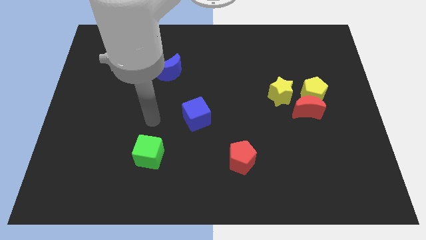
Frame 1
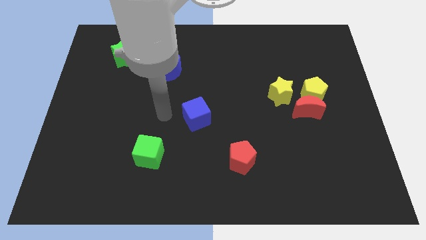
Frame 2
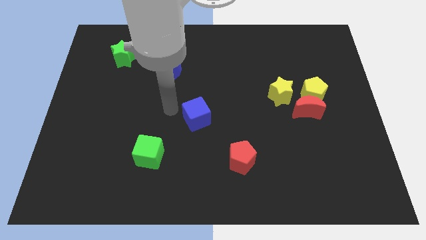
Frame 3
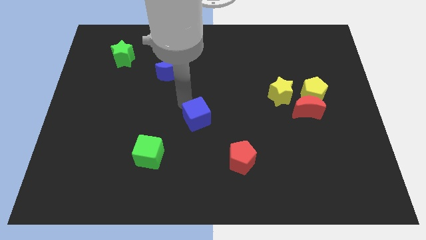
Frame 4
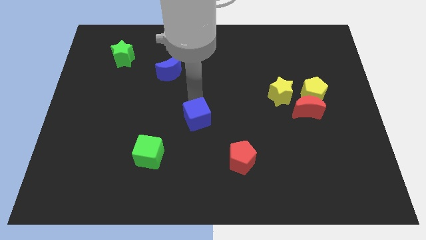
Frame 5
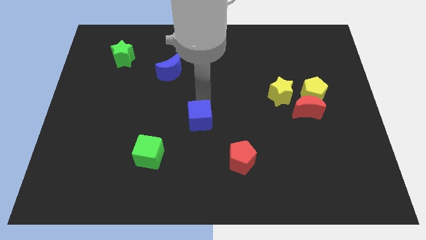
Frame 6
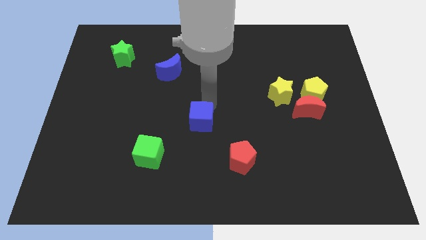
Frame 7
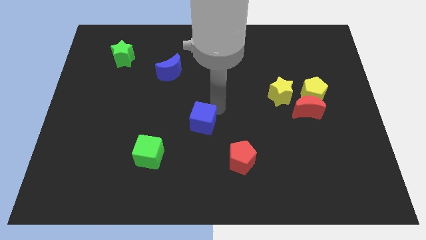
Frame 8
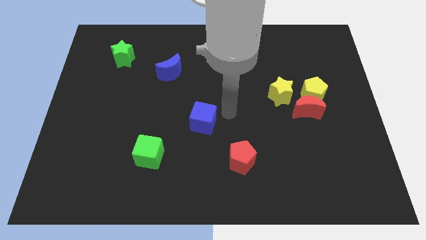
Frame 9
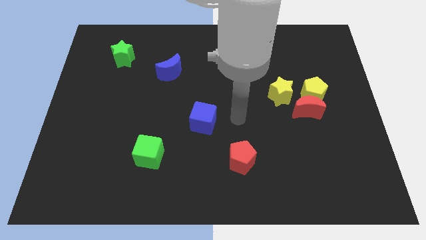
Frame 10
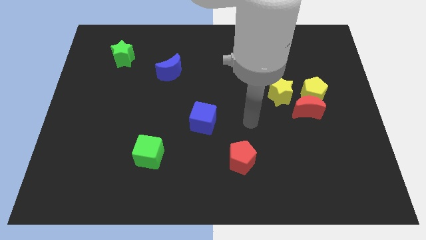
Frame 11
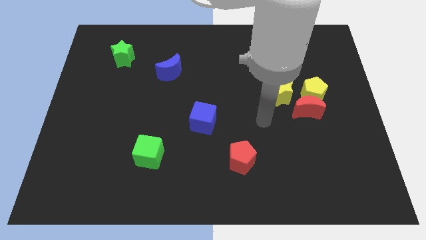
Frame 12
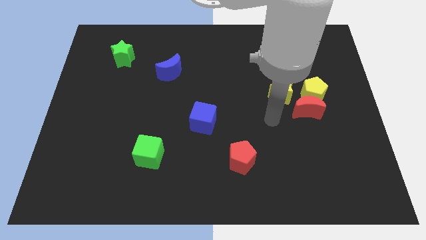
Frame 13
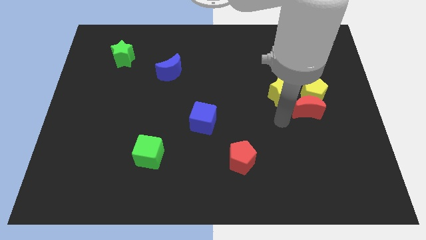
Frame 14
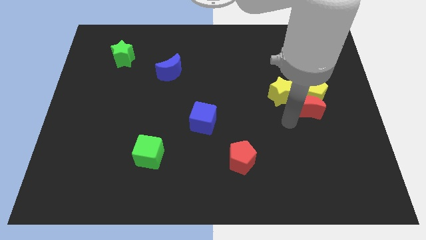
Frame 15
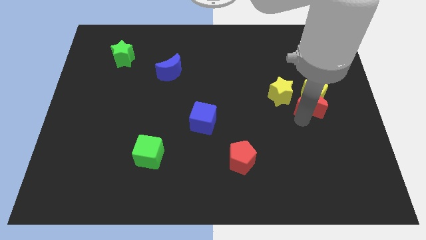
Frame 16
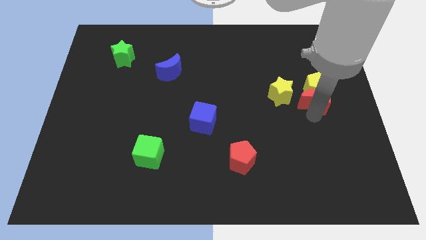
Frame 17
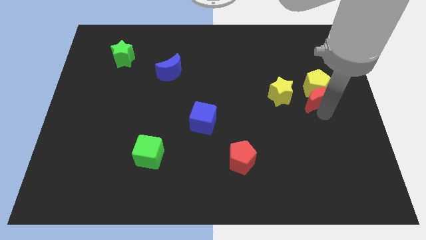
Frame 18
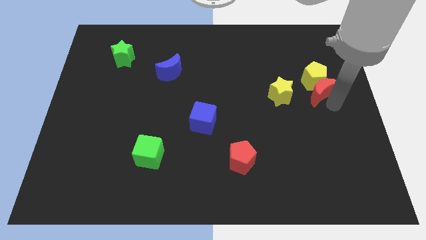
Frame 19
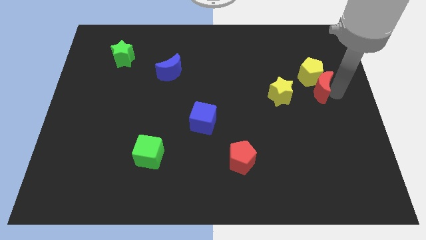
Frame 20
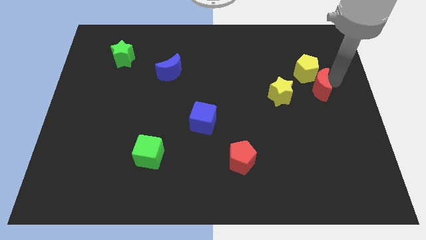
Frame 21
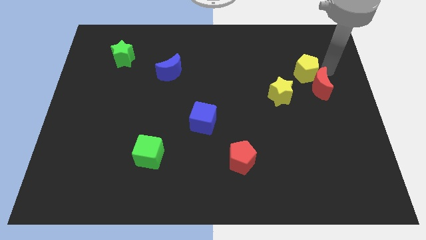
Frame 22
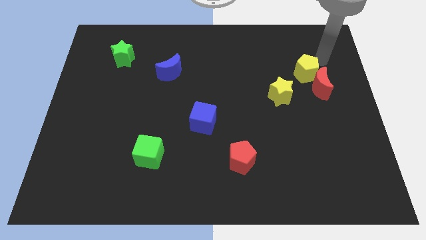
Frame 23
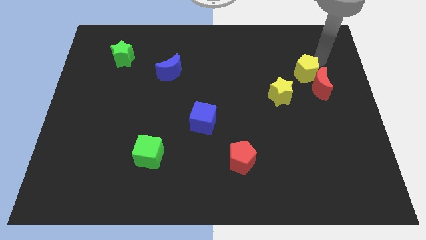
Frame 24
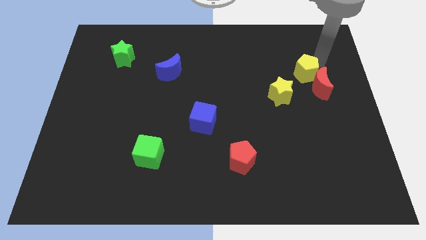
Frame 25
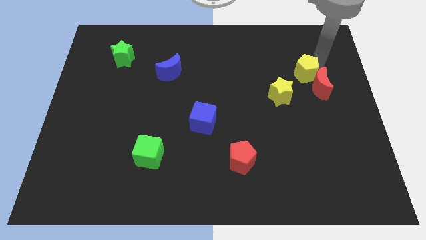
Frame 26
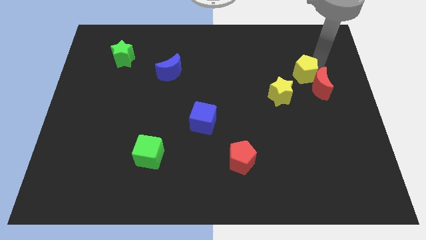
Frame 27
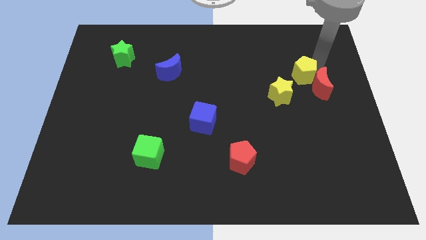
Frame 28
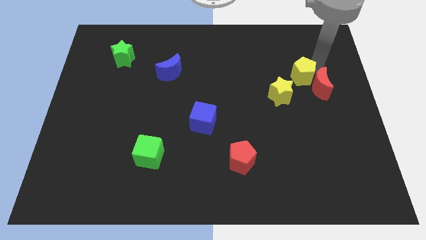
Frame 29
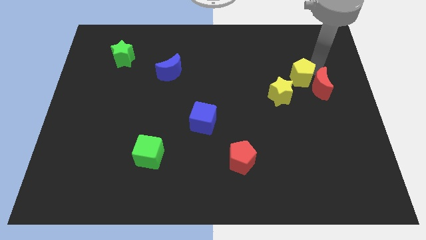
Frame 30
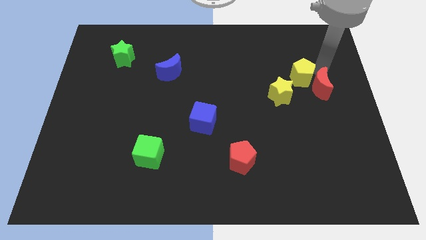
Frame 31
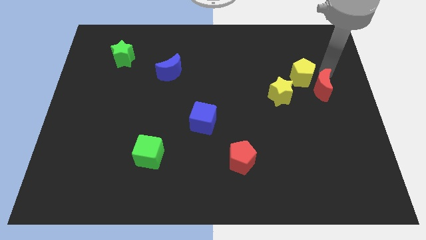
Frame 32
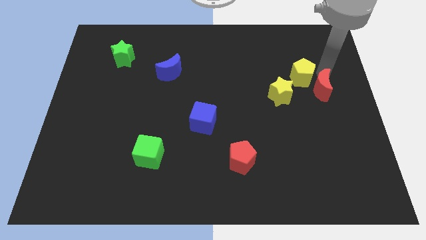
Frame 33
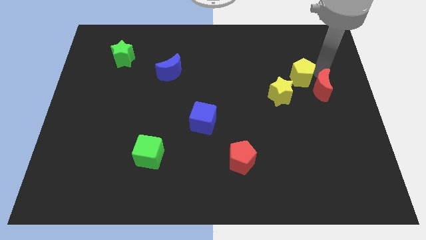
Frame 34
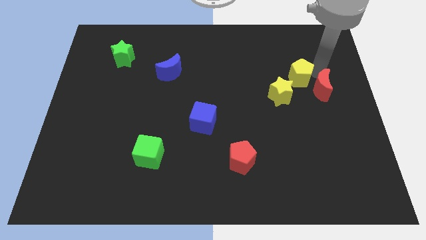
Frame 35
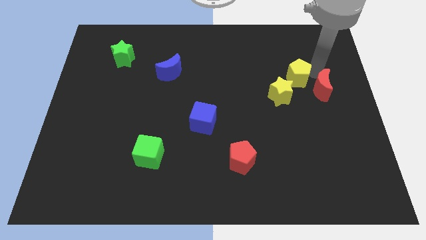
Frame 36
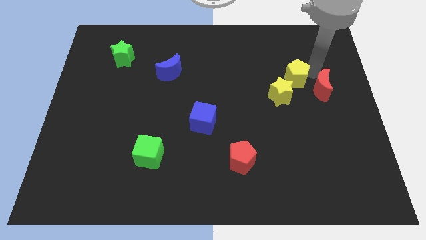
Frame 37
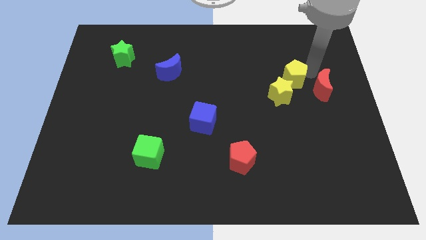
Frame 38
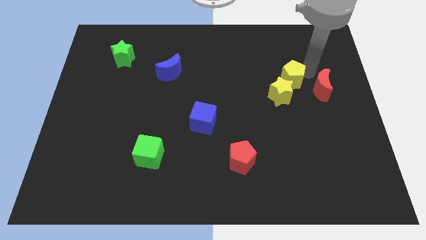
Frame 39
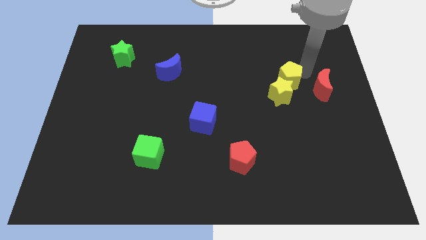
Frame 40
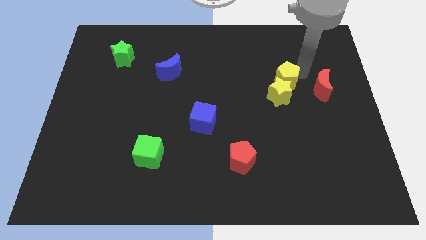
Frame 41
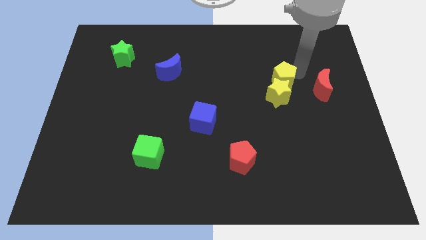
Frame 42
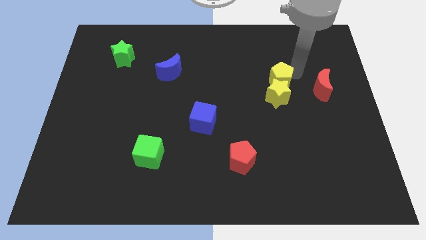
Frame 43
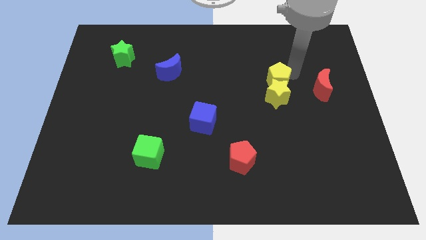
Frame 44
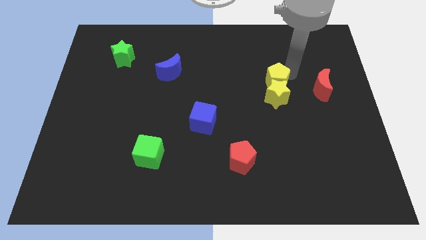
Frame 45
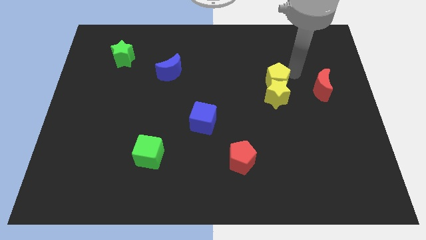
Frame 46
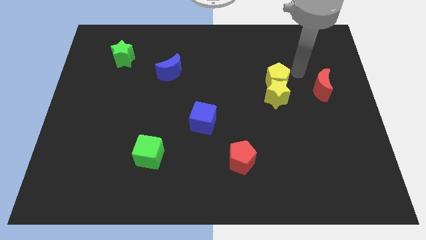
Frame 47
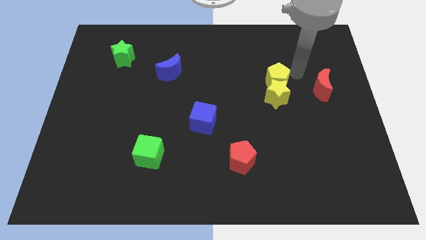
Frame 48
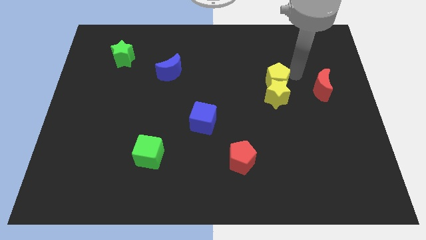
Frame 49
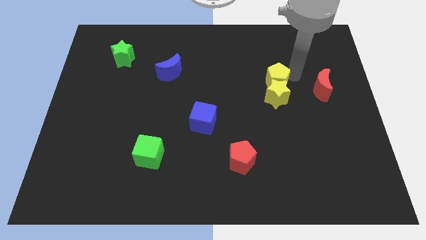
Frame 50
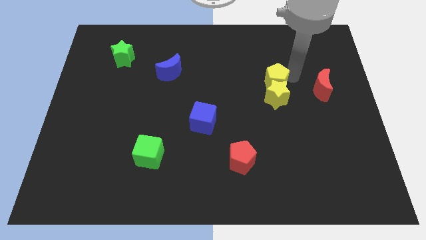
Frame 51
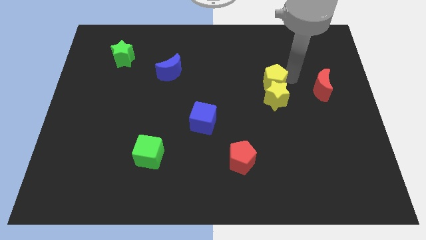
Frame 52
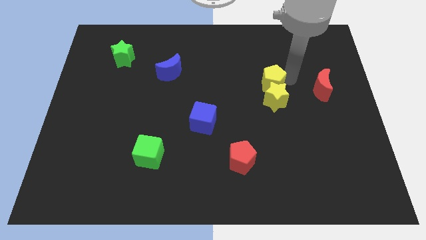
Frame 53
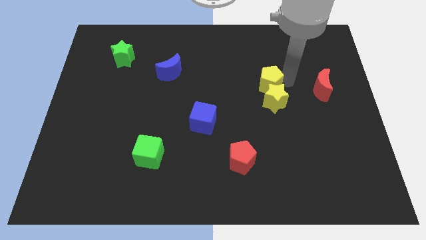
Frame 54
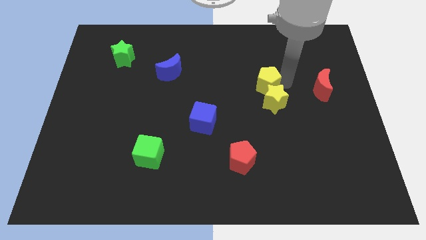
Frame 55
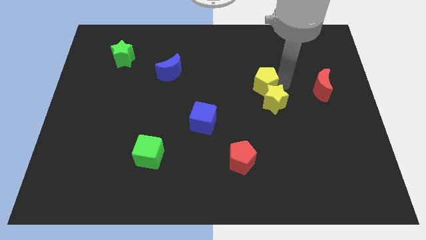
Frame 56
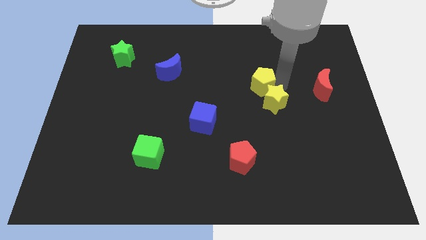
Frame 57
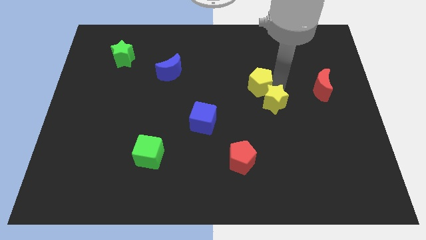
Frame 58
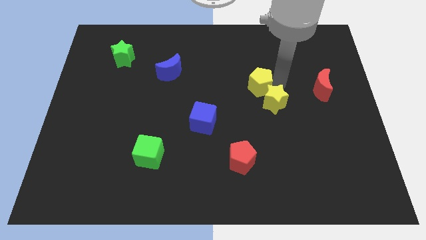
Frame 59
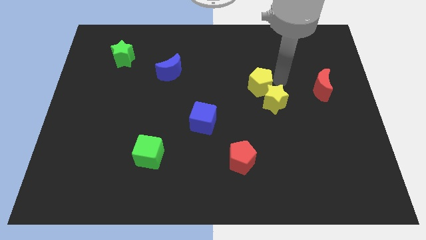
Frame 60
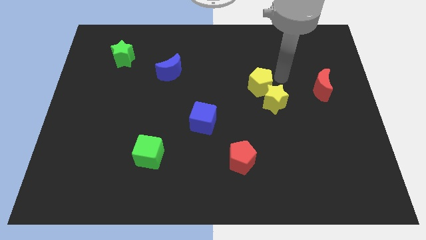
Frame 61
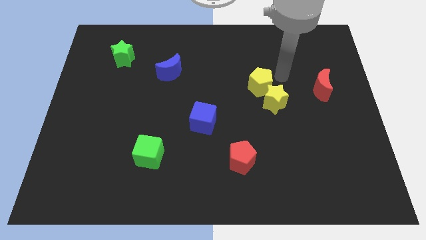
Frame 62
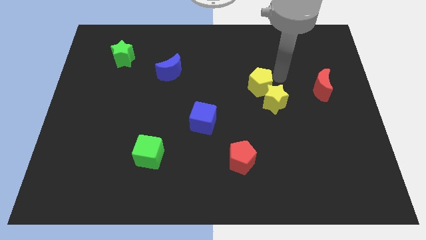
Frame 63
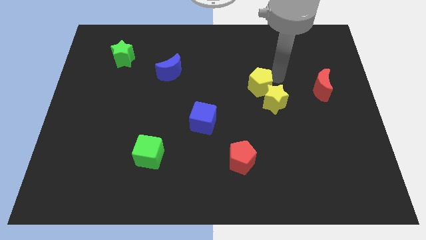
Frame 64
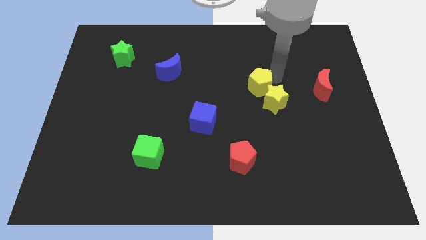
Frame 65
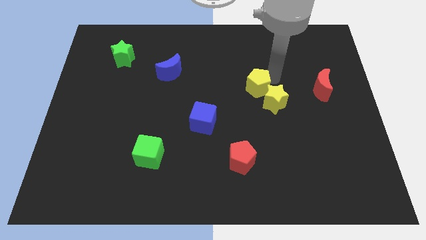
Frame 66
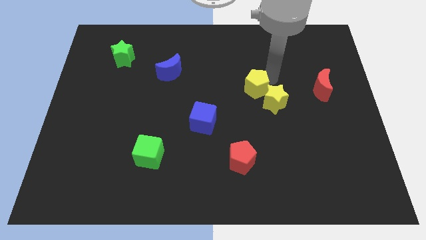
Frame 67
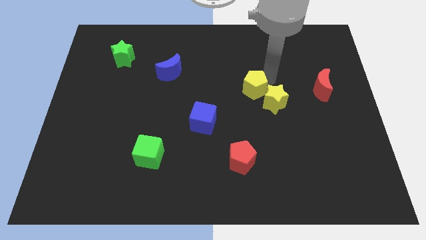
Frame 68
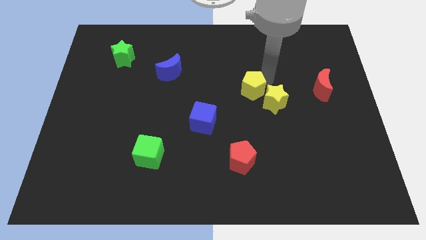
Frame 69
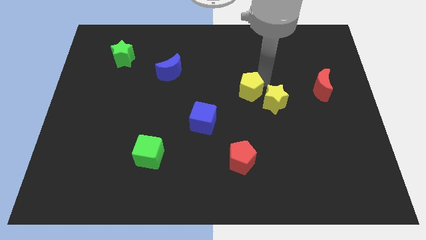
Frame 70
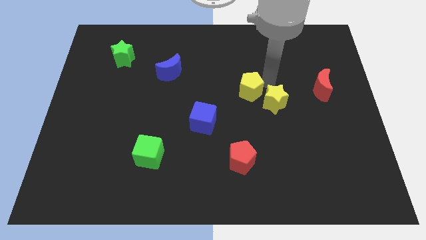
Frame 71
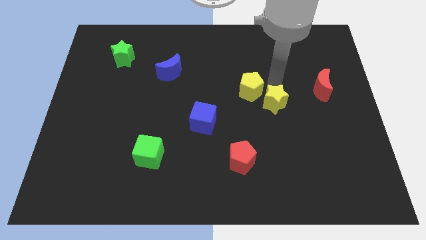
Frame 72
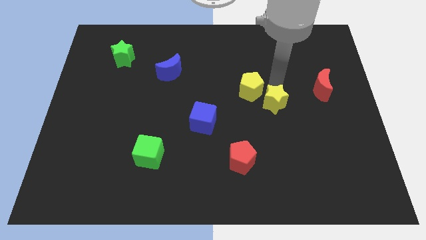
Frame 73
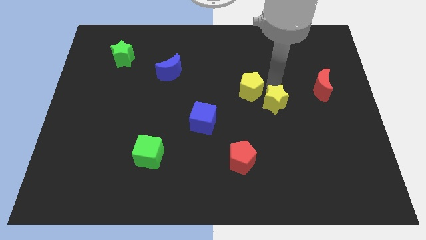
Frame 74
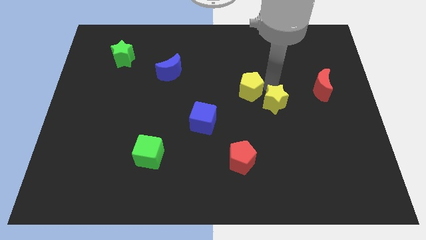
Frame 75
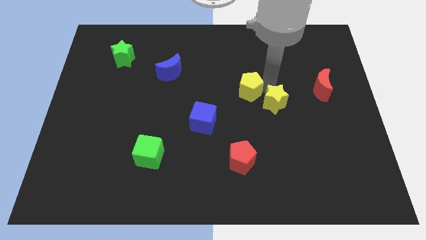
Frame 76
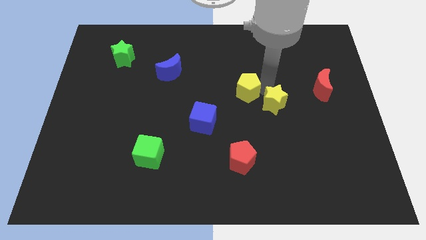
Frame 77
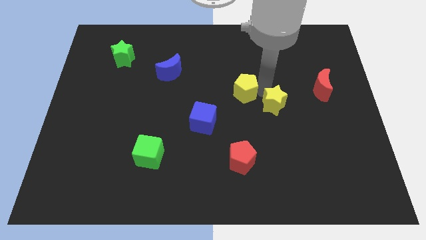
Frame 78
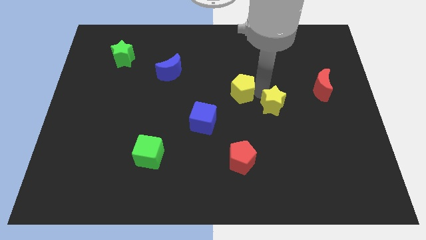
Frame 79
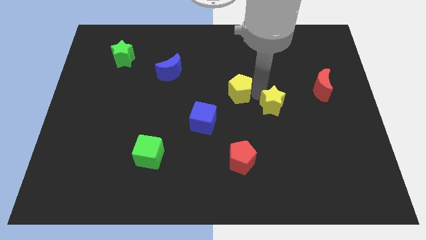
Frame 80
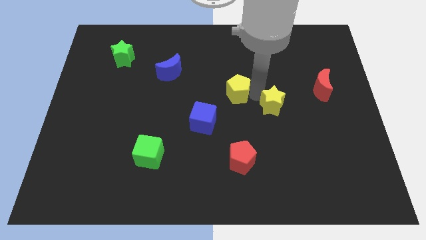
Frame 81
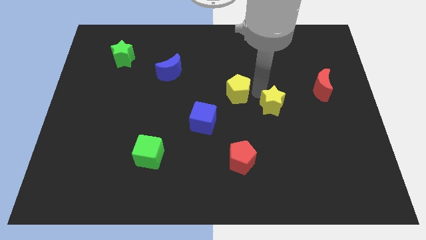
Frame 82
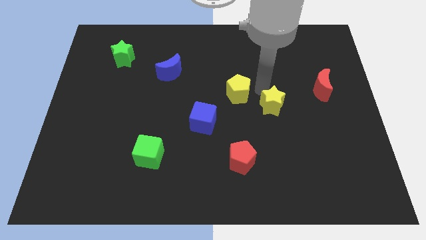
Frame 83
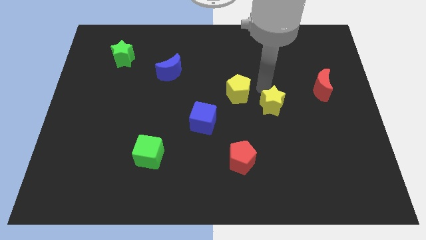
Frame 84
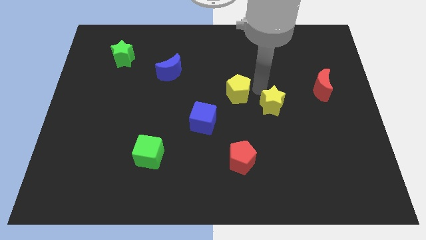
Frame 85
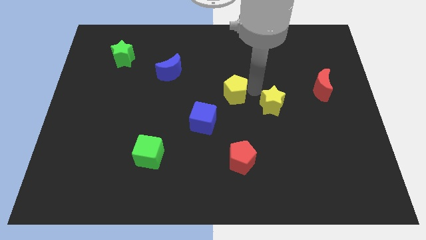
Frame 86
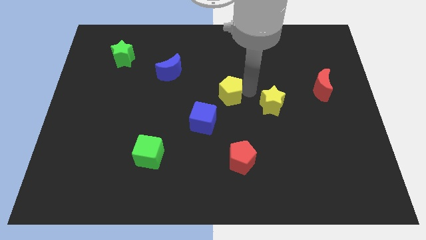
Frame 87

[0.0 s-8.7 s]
push the yellow pentagon to the left
